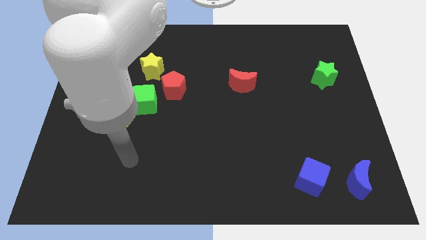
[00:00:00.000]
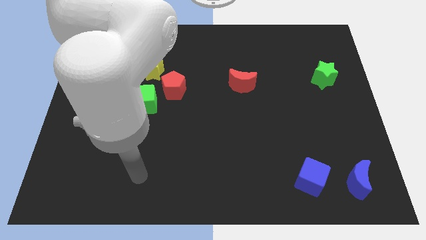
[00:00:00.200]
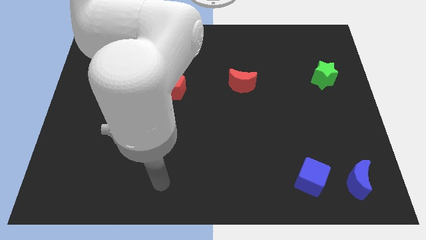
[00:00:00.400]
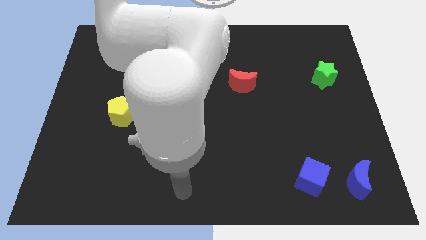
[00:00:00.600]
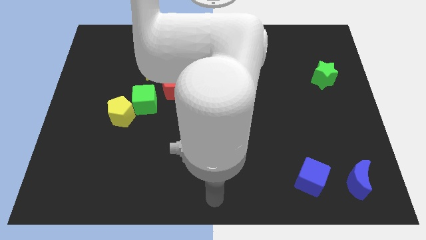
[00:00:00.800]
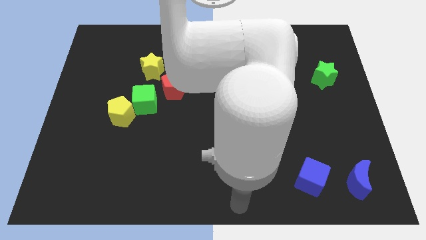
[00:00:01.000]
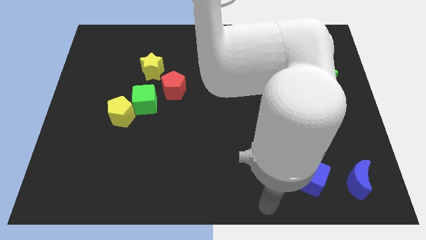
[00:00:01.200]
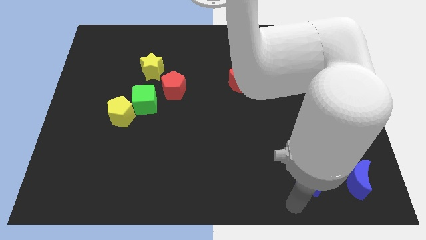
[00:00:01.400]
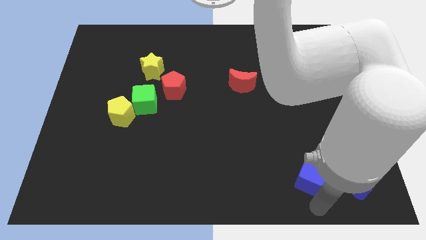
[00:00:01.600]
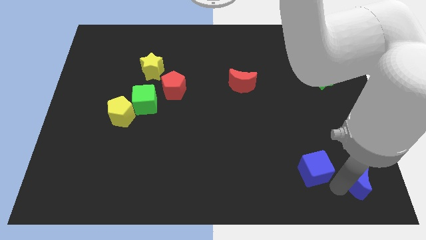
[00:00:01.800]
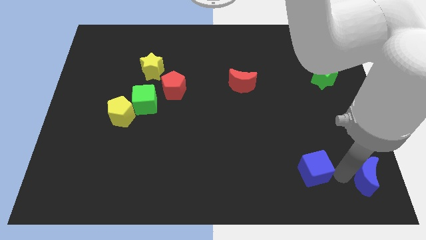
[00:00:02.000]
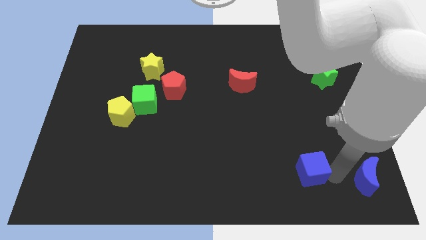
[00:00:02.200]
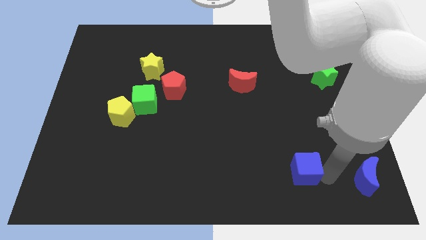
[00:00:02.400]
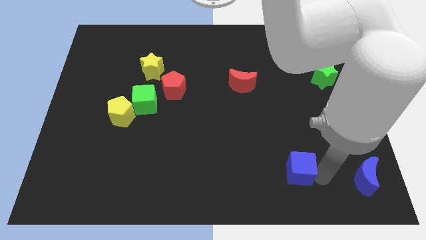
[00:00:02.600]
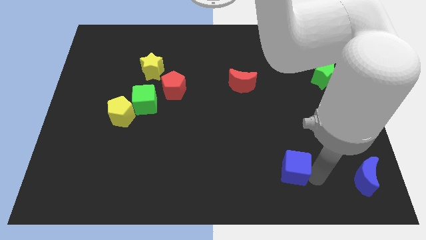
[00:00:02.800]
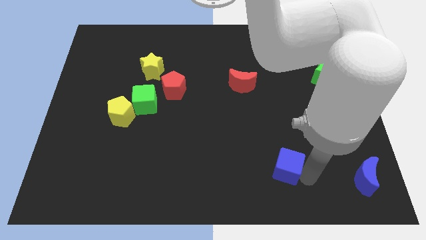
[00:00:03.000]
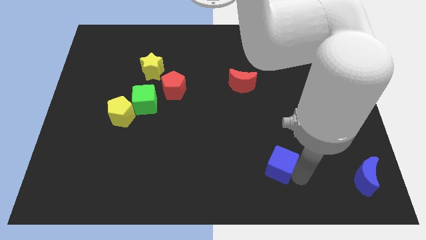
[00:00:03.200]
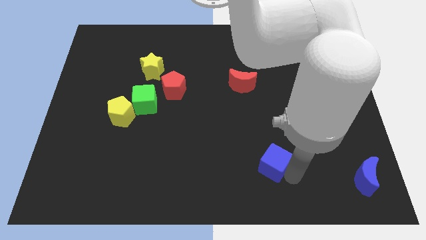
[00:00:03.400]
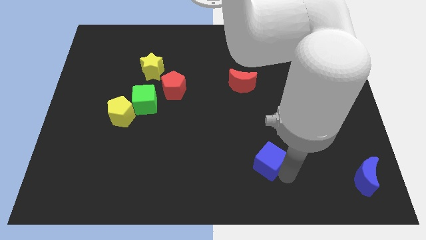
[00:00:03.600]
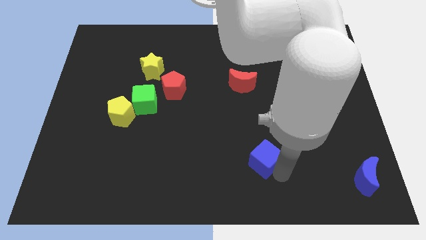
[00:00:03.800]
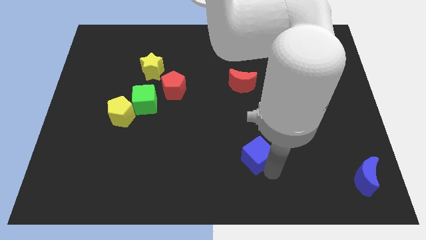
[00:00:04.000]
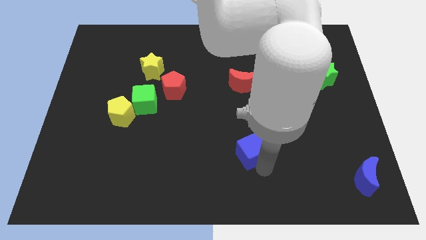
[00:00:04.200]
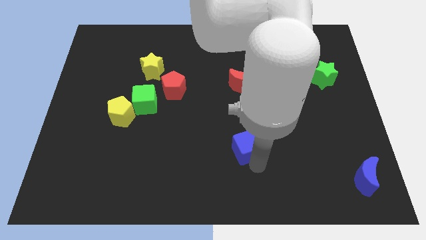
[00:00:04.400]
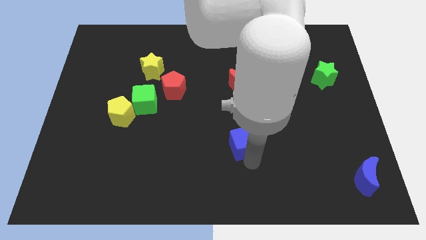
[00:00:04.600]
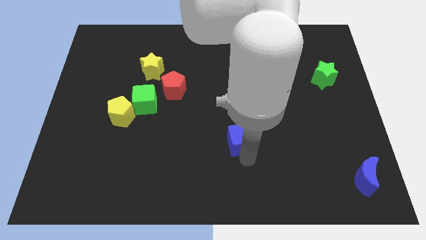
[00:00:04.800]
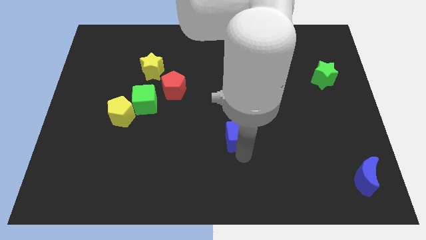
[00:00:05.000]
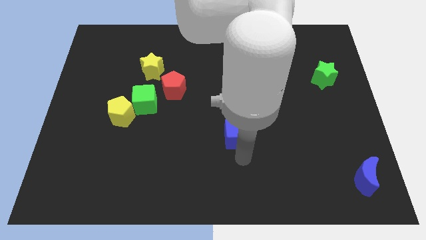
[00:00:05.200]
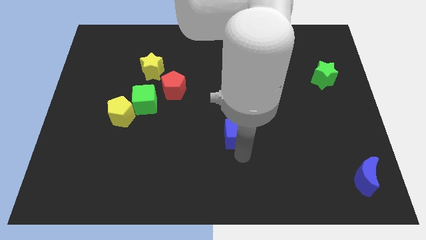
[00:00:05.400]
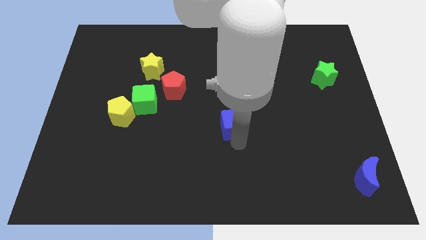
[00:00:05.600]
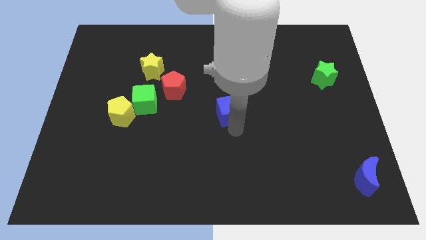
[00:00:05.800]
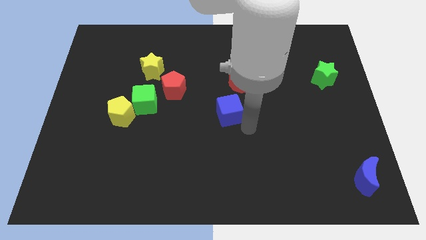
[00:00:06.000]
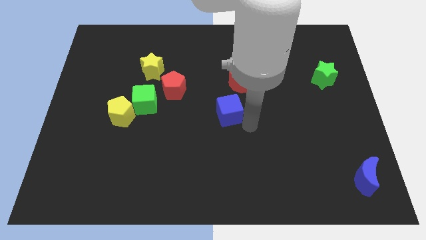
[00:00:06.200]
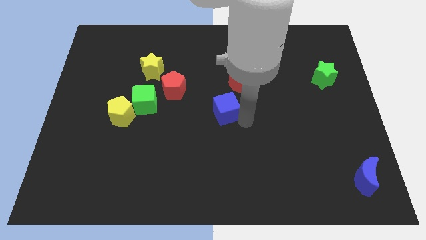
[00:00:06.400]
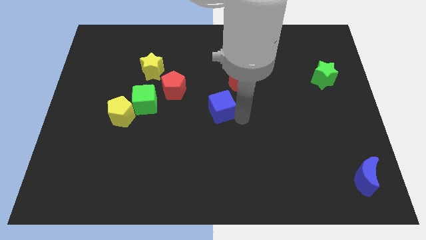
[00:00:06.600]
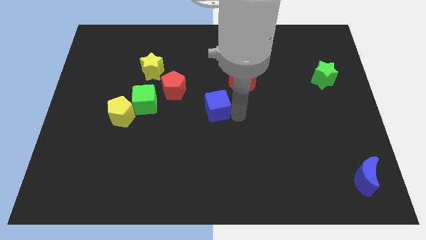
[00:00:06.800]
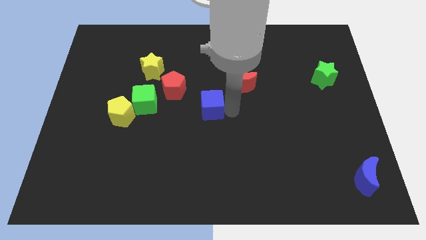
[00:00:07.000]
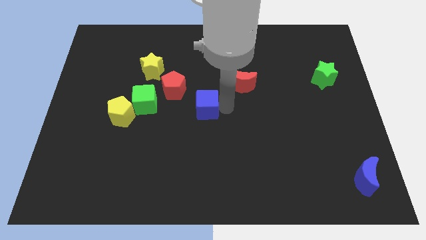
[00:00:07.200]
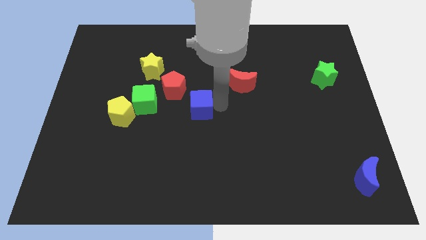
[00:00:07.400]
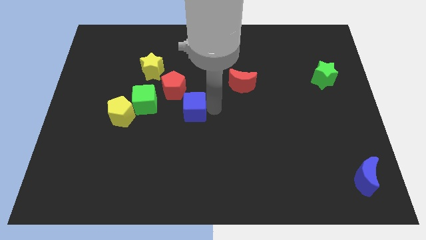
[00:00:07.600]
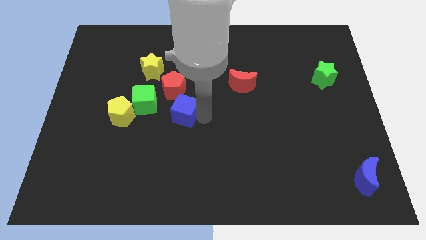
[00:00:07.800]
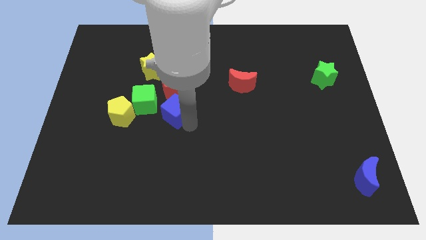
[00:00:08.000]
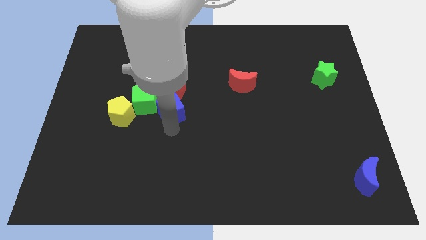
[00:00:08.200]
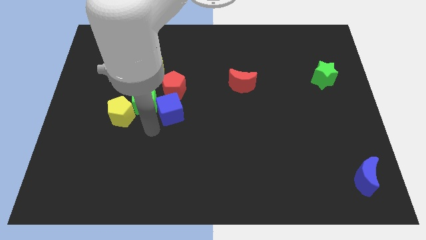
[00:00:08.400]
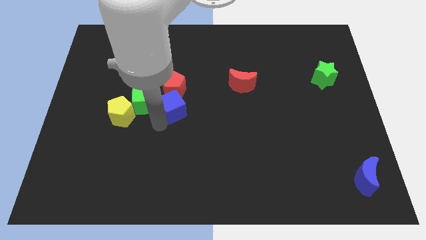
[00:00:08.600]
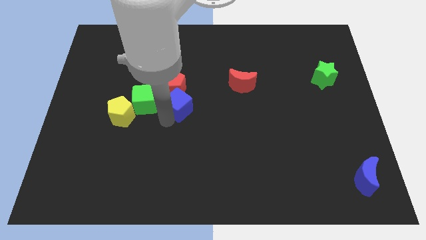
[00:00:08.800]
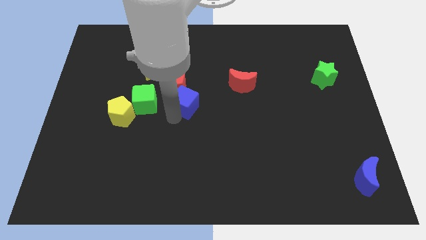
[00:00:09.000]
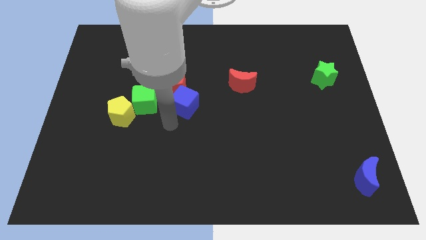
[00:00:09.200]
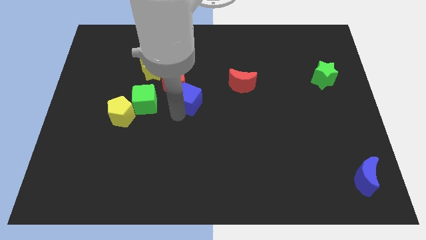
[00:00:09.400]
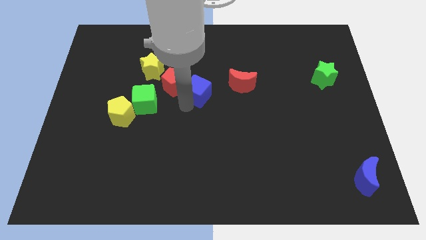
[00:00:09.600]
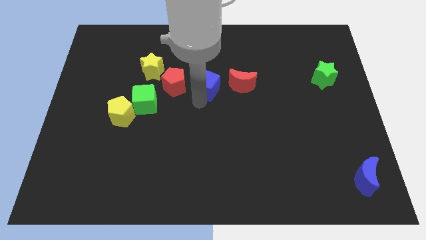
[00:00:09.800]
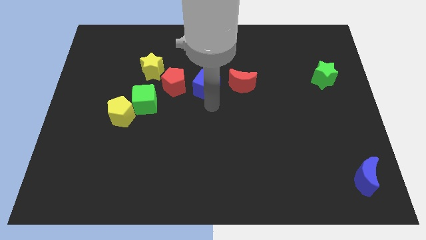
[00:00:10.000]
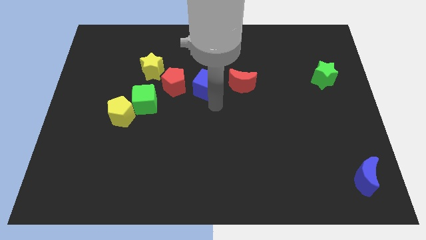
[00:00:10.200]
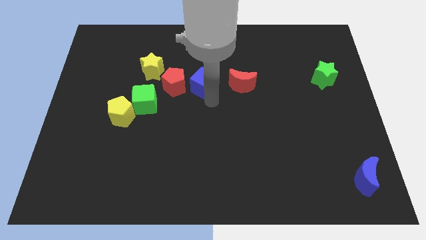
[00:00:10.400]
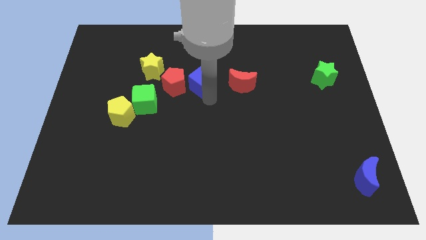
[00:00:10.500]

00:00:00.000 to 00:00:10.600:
put the blue cube to the top right of the red pentagon

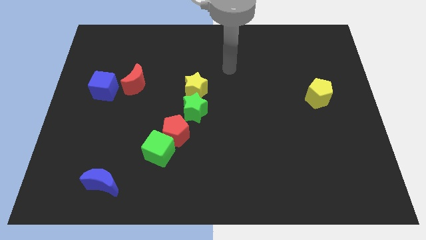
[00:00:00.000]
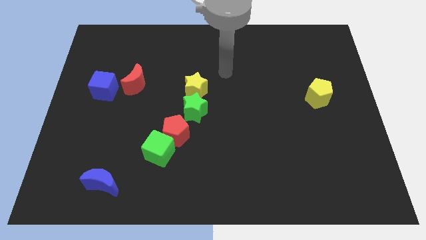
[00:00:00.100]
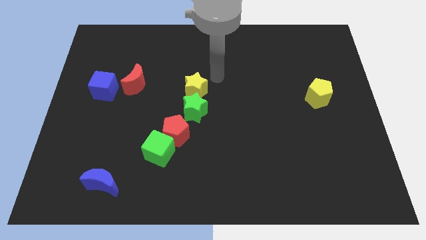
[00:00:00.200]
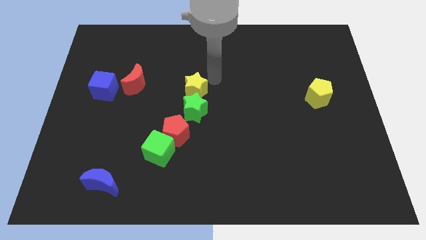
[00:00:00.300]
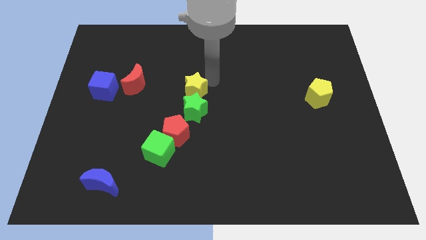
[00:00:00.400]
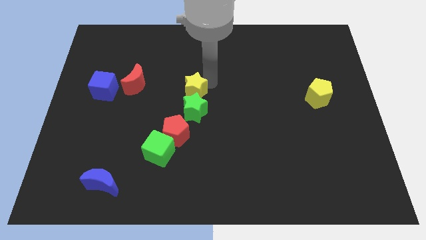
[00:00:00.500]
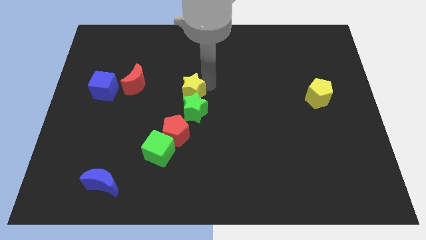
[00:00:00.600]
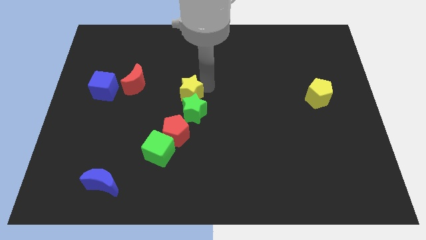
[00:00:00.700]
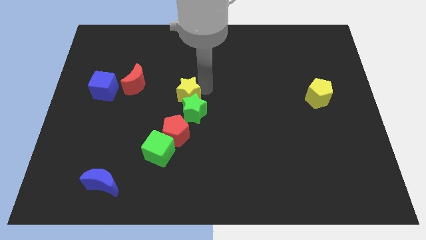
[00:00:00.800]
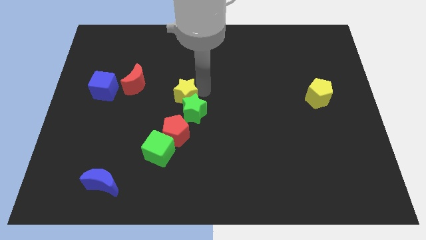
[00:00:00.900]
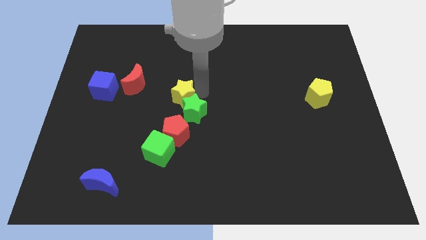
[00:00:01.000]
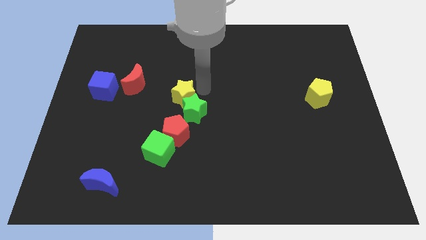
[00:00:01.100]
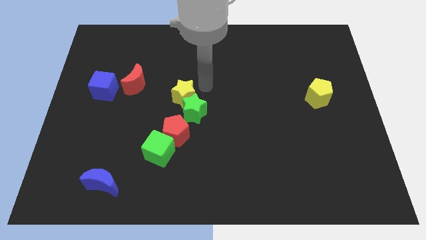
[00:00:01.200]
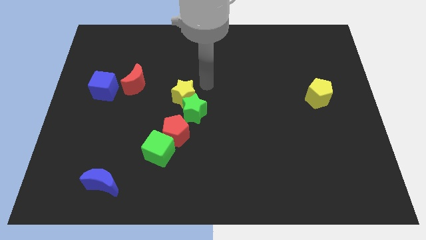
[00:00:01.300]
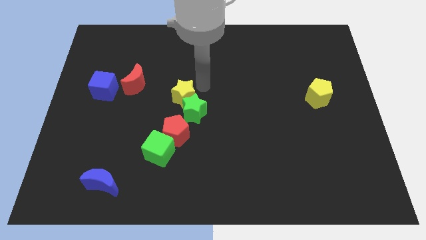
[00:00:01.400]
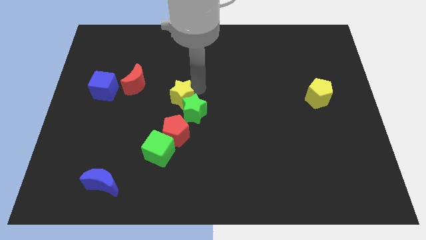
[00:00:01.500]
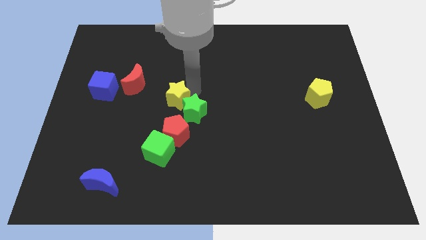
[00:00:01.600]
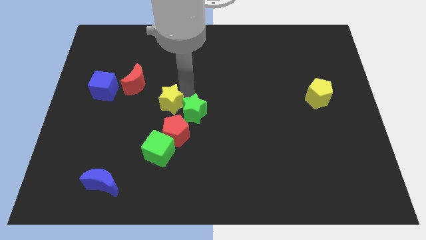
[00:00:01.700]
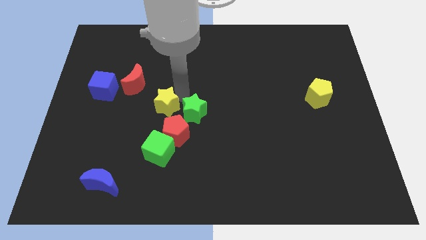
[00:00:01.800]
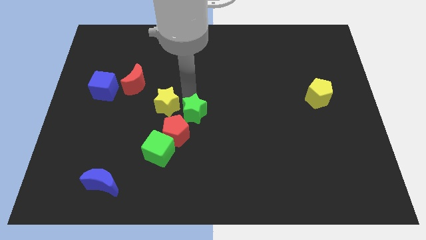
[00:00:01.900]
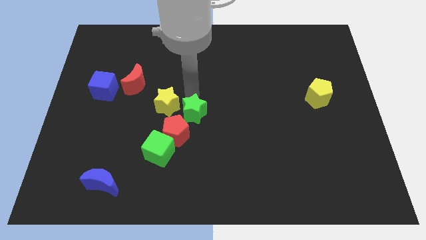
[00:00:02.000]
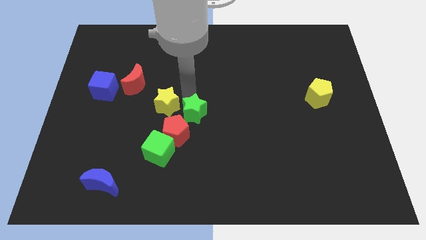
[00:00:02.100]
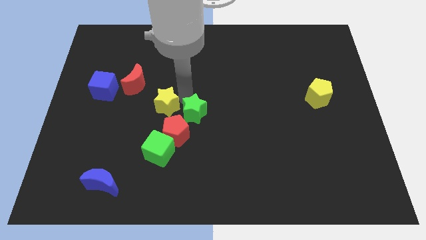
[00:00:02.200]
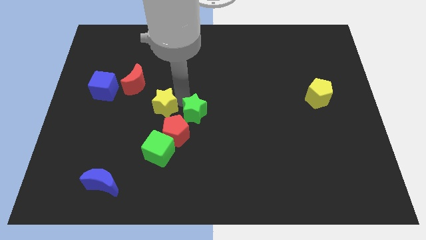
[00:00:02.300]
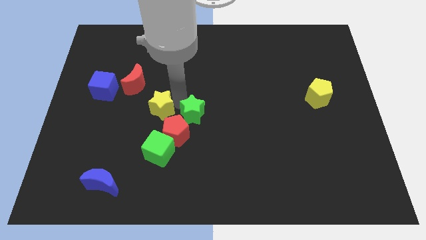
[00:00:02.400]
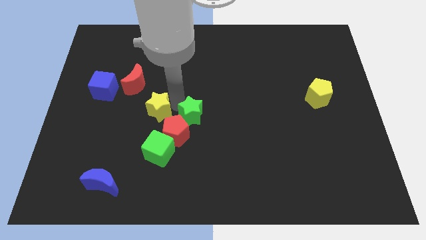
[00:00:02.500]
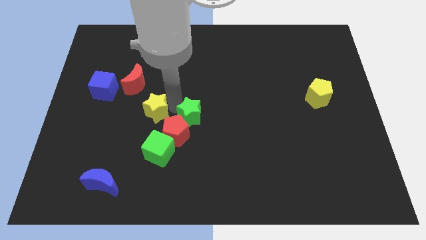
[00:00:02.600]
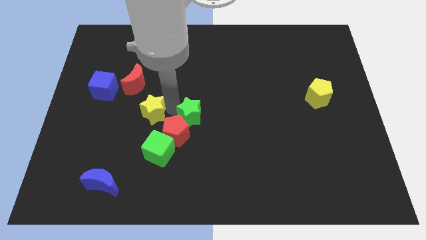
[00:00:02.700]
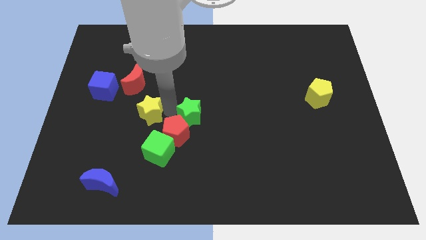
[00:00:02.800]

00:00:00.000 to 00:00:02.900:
put the yellow star below the red moon
